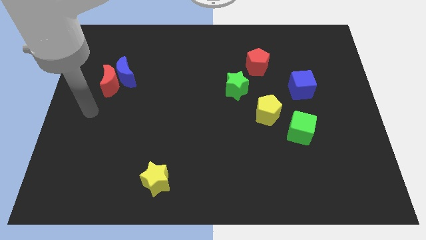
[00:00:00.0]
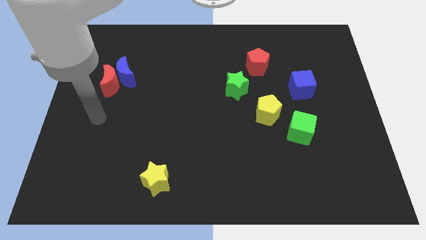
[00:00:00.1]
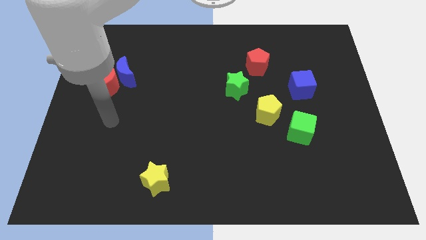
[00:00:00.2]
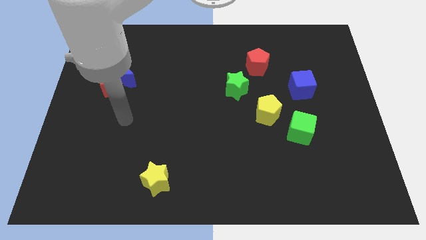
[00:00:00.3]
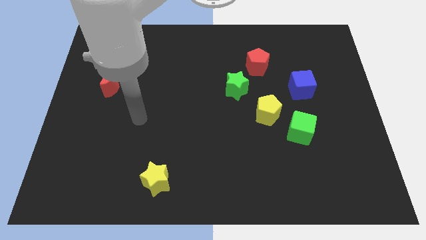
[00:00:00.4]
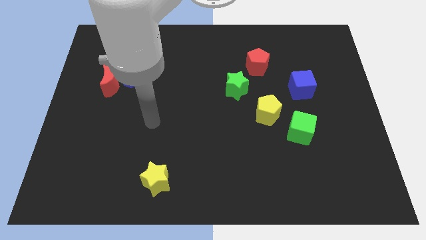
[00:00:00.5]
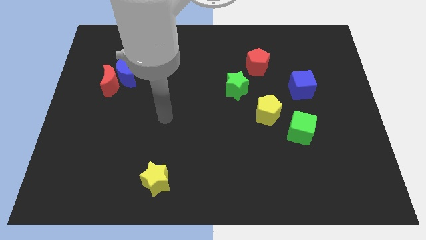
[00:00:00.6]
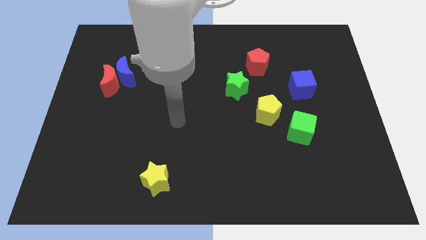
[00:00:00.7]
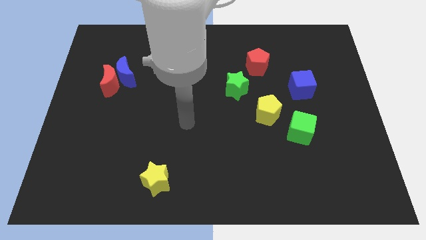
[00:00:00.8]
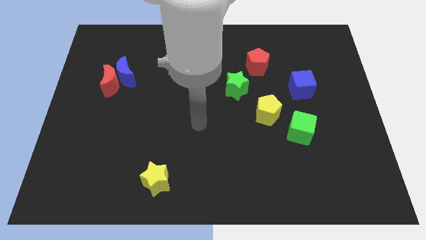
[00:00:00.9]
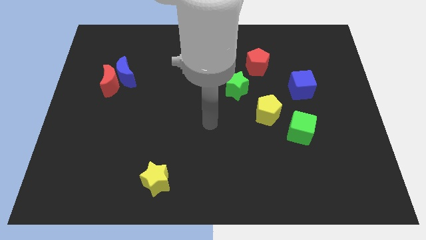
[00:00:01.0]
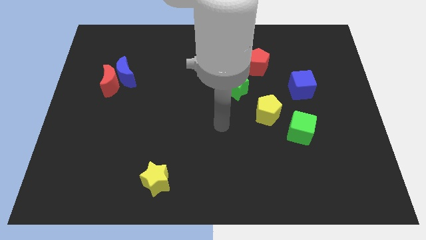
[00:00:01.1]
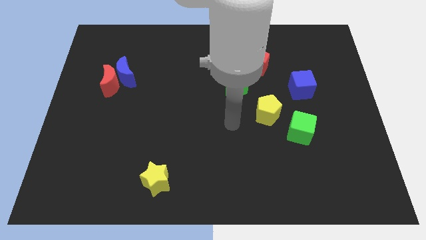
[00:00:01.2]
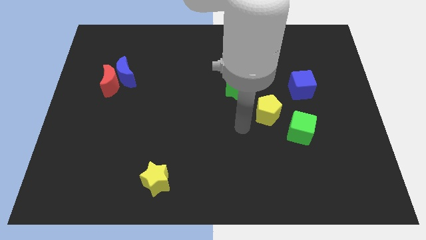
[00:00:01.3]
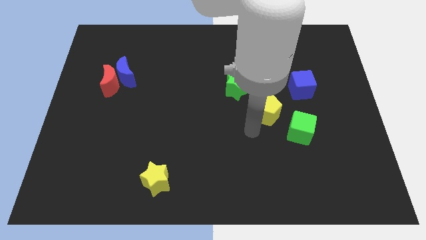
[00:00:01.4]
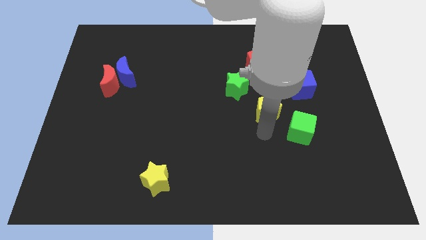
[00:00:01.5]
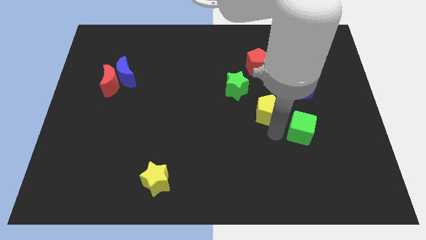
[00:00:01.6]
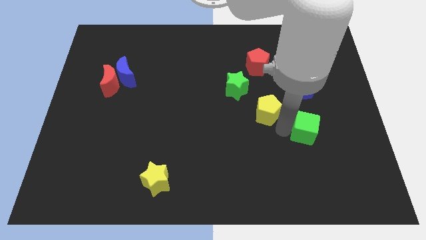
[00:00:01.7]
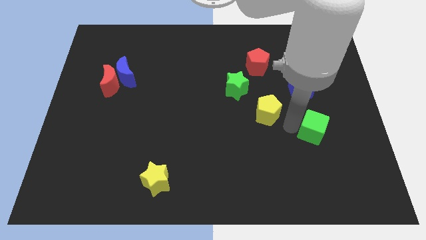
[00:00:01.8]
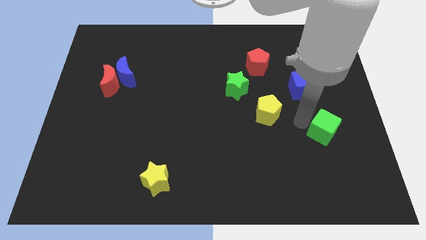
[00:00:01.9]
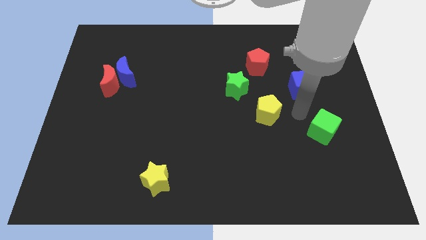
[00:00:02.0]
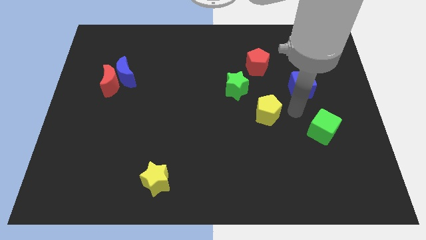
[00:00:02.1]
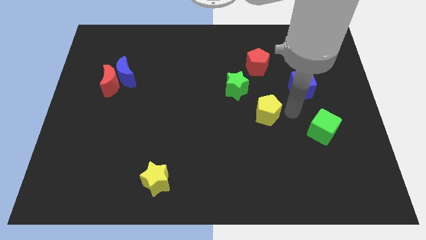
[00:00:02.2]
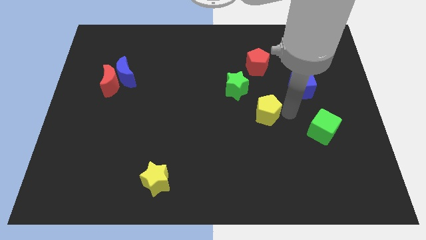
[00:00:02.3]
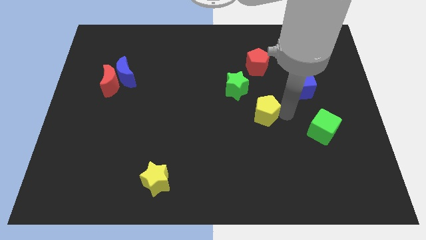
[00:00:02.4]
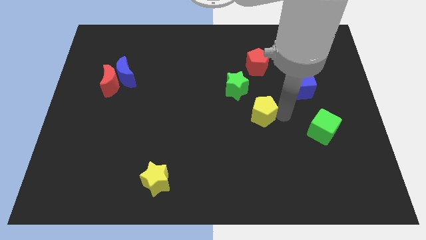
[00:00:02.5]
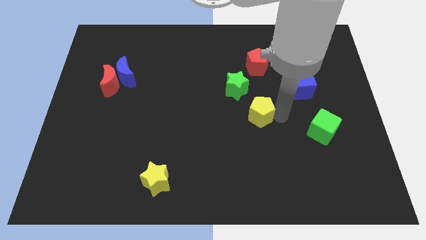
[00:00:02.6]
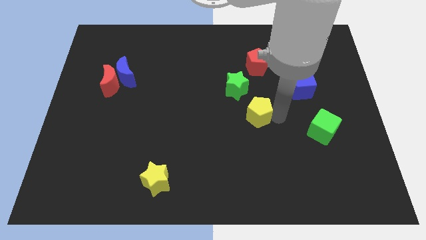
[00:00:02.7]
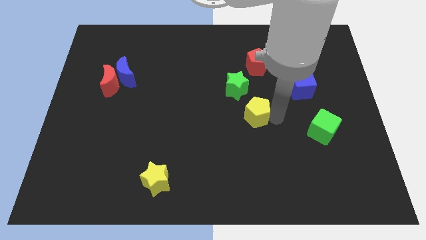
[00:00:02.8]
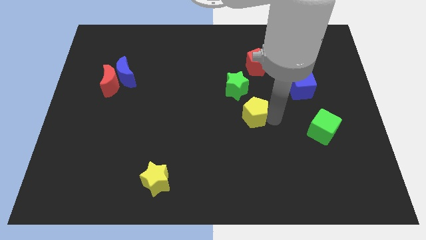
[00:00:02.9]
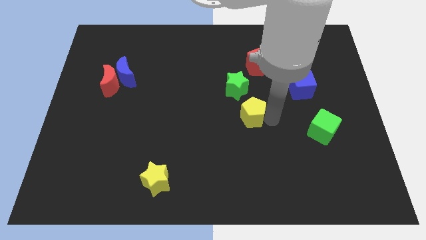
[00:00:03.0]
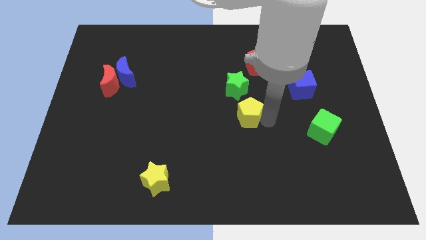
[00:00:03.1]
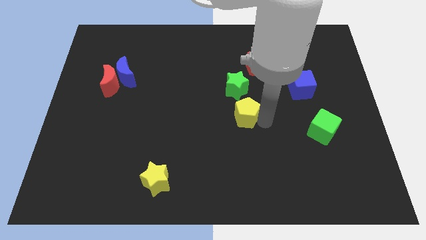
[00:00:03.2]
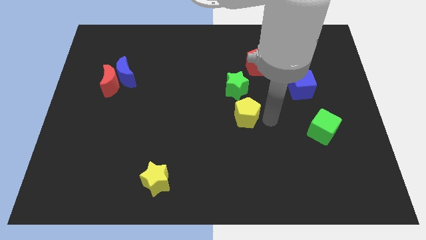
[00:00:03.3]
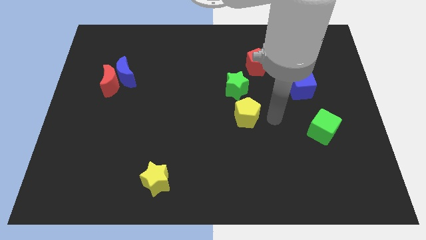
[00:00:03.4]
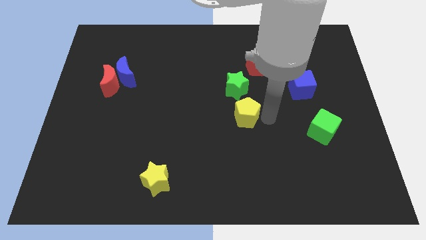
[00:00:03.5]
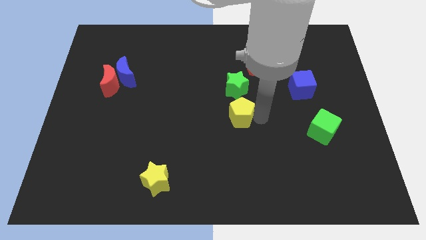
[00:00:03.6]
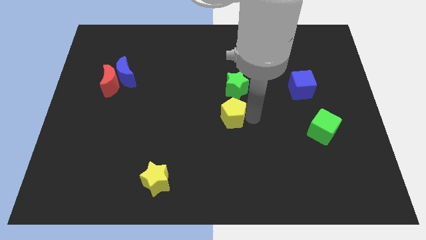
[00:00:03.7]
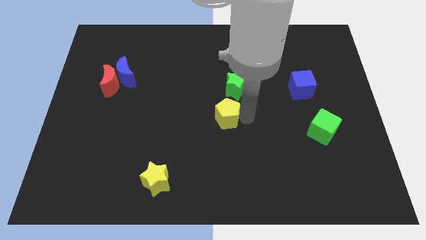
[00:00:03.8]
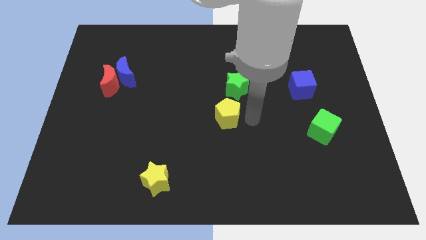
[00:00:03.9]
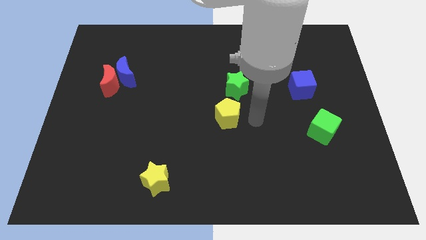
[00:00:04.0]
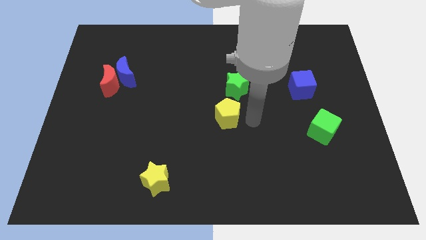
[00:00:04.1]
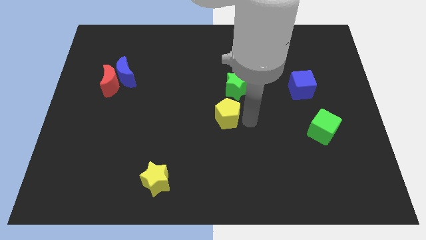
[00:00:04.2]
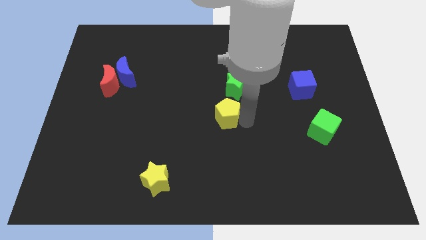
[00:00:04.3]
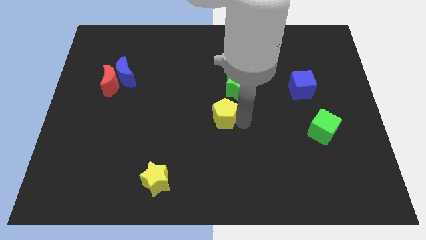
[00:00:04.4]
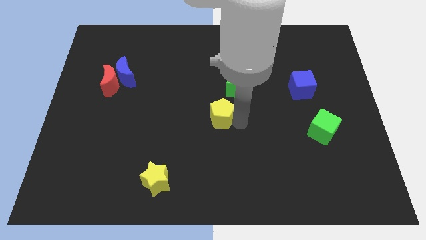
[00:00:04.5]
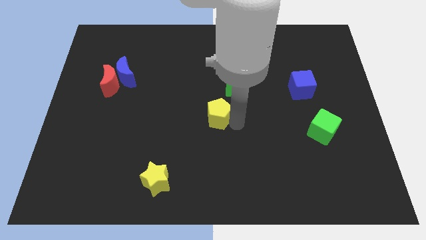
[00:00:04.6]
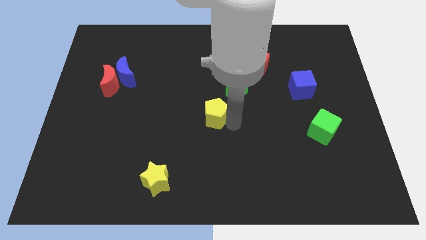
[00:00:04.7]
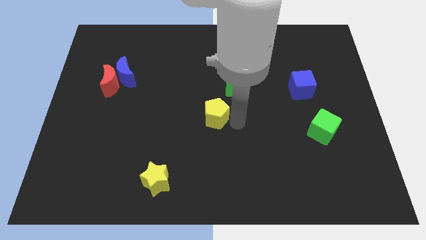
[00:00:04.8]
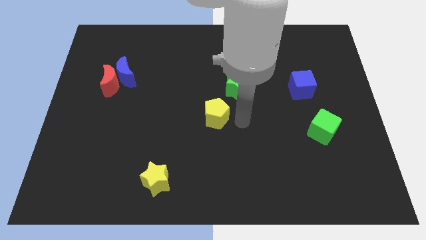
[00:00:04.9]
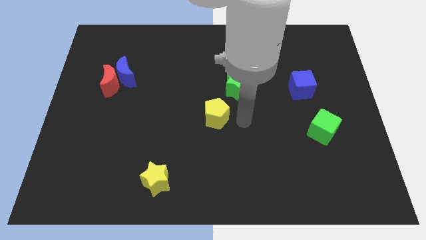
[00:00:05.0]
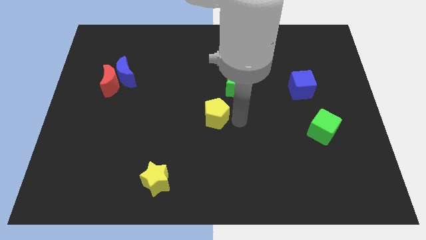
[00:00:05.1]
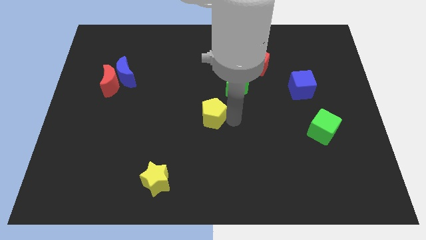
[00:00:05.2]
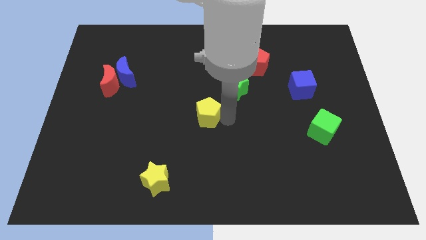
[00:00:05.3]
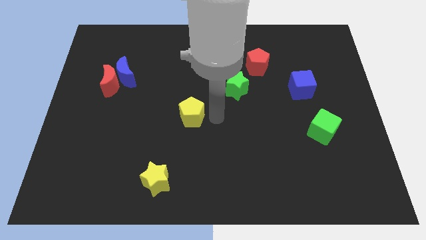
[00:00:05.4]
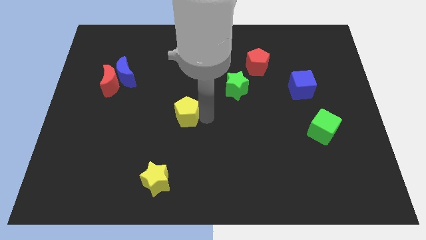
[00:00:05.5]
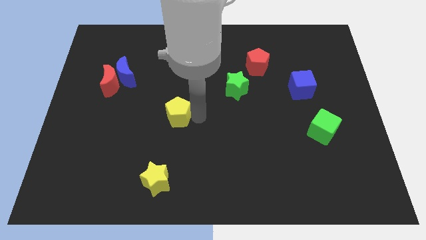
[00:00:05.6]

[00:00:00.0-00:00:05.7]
push the yellow pentagon left

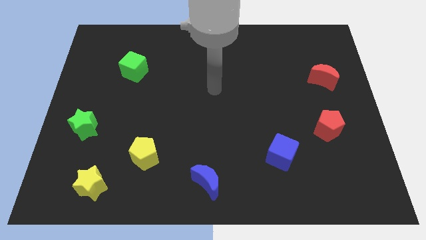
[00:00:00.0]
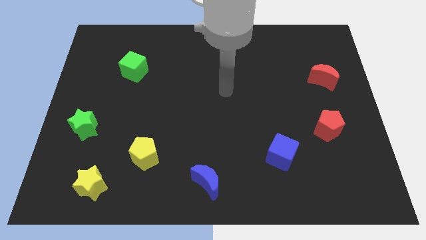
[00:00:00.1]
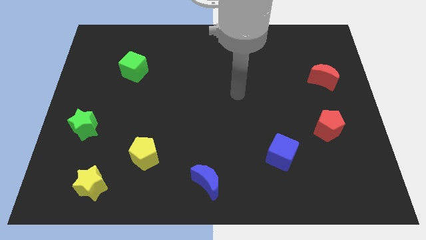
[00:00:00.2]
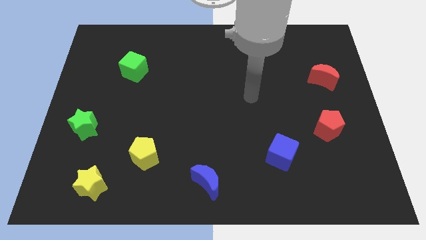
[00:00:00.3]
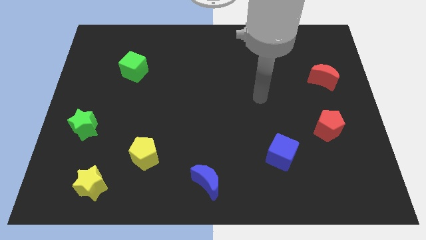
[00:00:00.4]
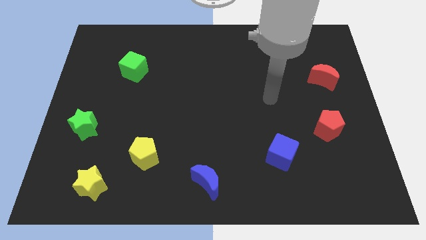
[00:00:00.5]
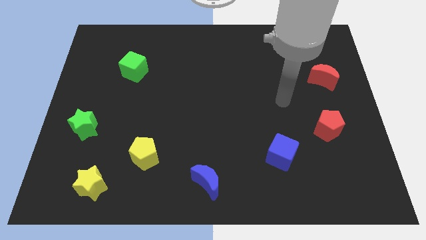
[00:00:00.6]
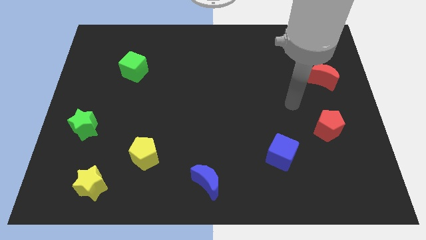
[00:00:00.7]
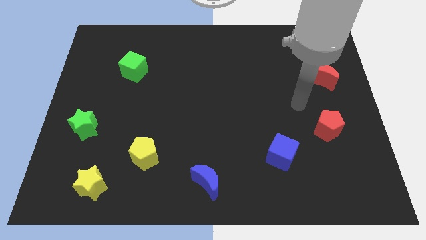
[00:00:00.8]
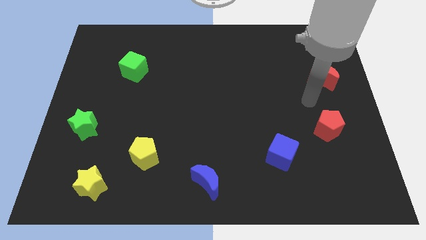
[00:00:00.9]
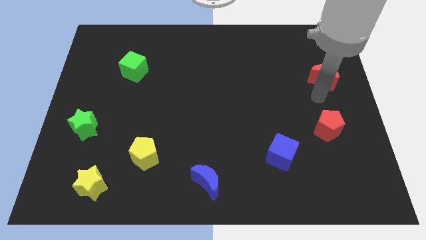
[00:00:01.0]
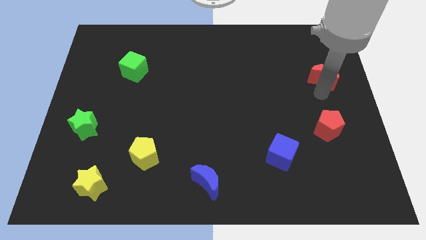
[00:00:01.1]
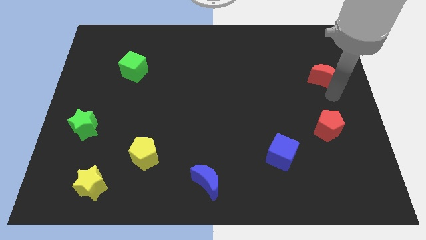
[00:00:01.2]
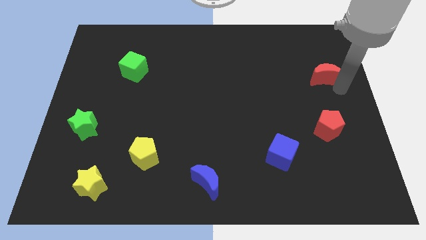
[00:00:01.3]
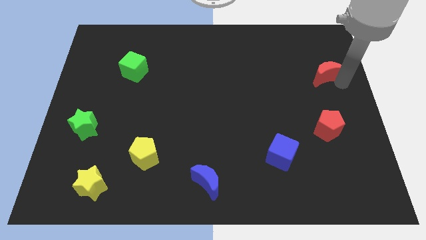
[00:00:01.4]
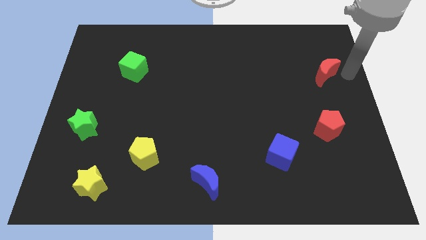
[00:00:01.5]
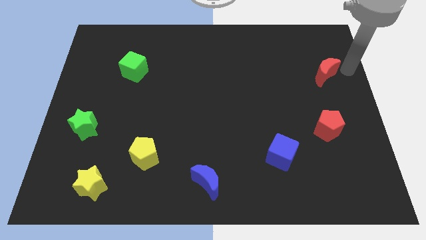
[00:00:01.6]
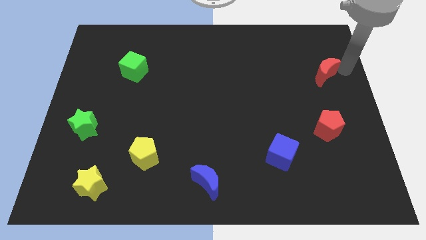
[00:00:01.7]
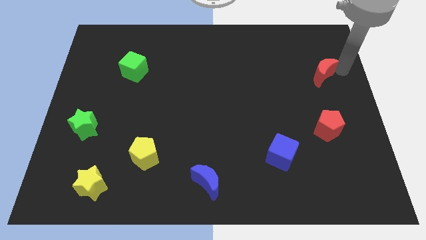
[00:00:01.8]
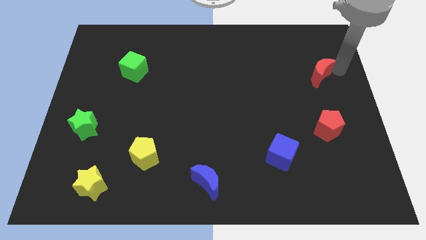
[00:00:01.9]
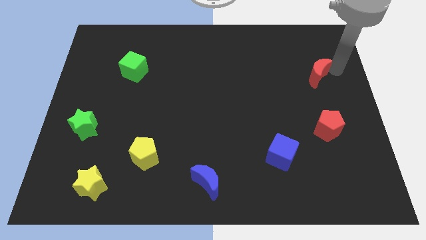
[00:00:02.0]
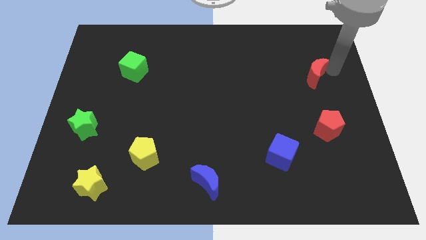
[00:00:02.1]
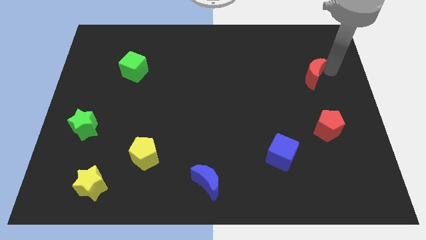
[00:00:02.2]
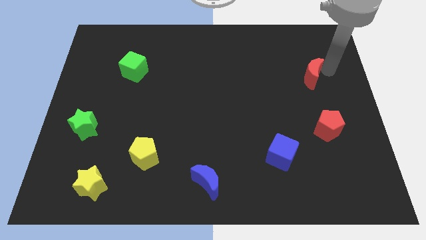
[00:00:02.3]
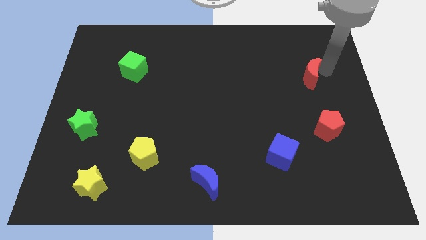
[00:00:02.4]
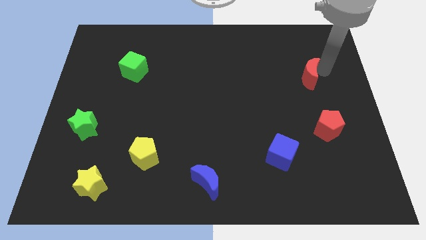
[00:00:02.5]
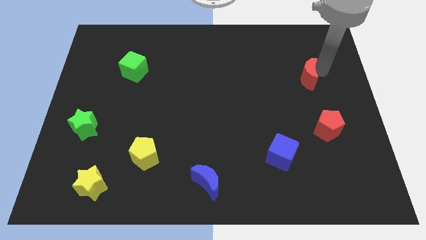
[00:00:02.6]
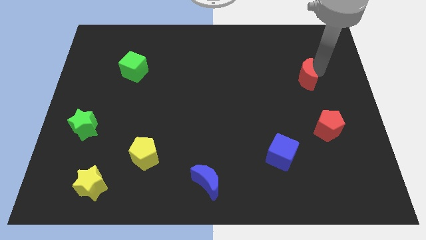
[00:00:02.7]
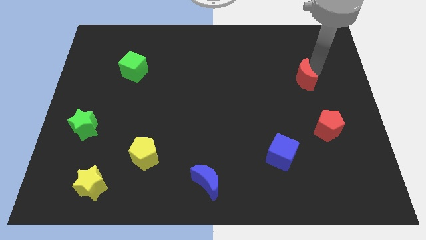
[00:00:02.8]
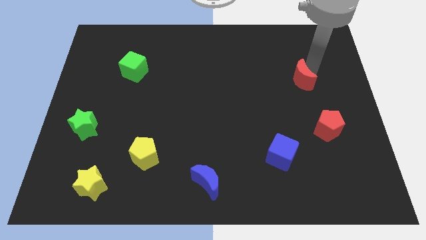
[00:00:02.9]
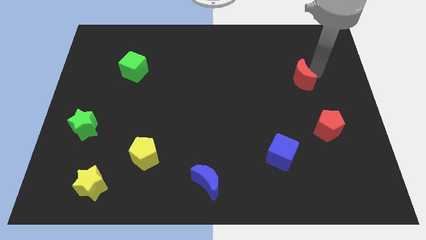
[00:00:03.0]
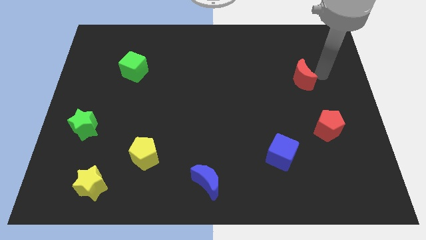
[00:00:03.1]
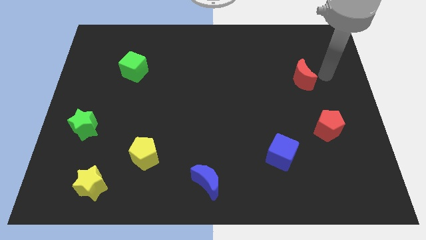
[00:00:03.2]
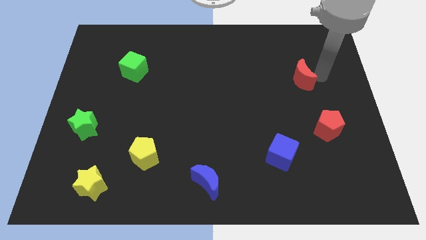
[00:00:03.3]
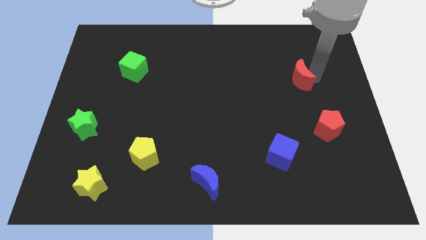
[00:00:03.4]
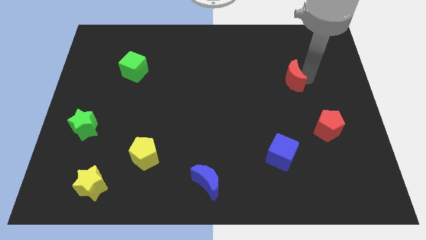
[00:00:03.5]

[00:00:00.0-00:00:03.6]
push the red moon to the left a little bit
